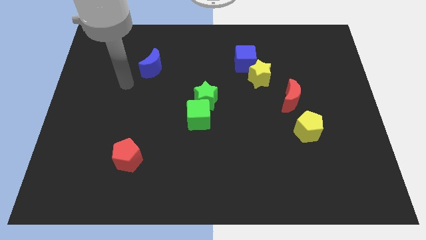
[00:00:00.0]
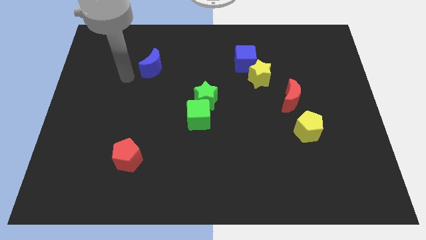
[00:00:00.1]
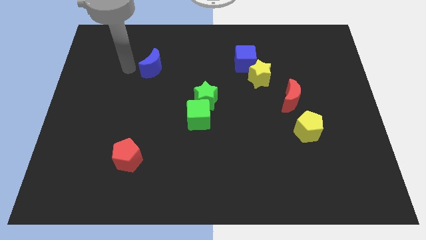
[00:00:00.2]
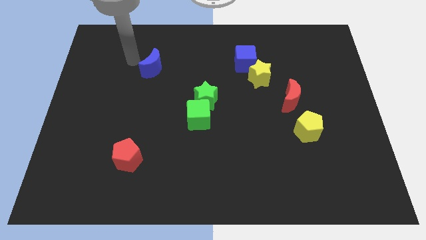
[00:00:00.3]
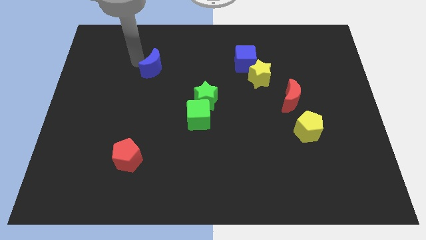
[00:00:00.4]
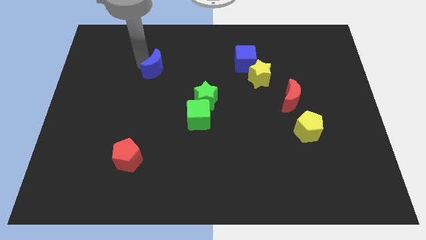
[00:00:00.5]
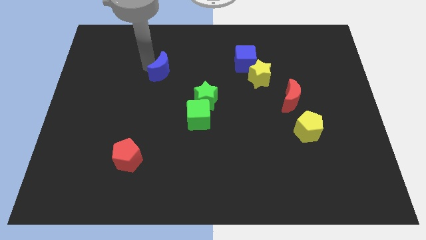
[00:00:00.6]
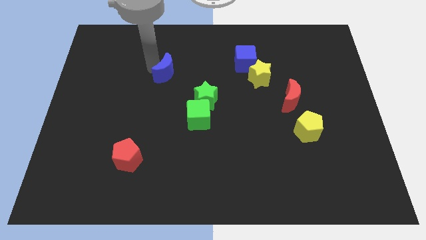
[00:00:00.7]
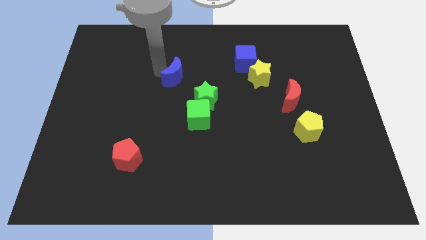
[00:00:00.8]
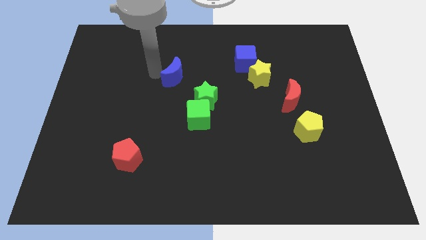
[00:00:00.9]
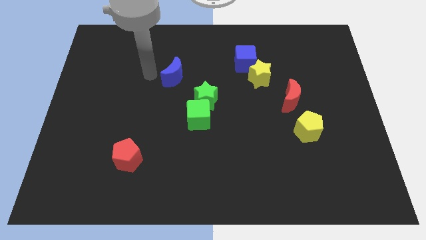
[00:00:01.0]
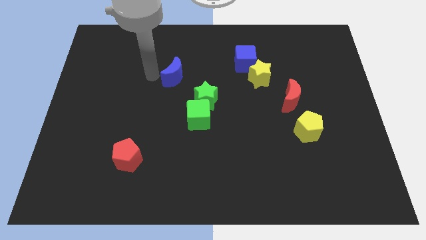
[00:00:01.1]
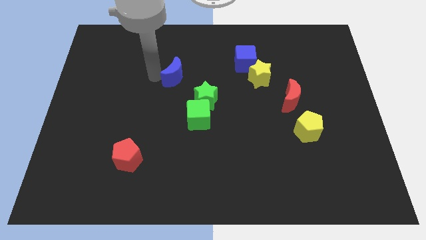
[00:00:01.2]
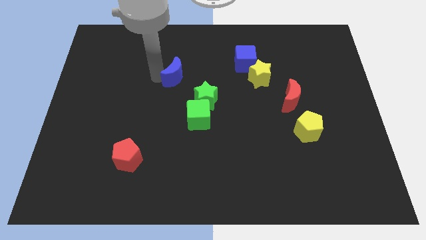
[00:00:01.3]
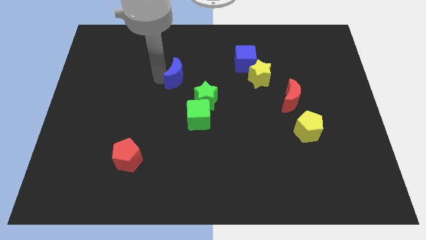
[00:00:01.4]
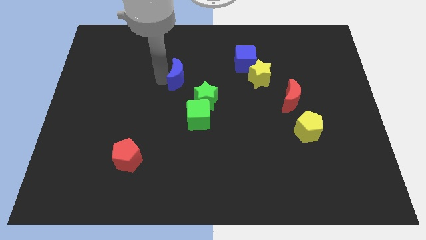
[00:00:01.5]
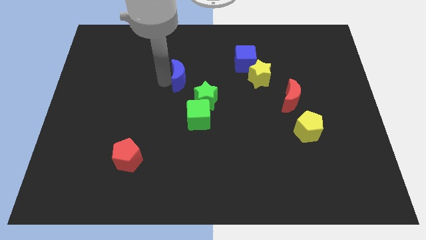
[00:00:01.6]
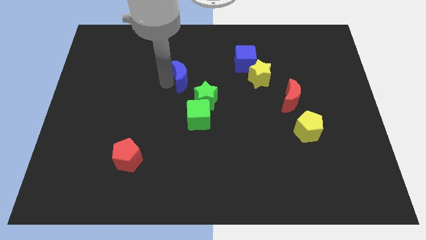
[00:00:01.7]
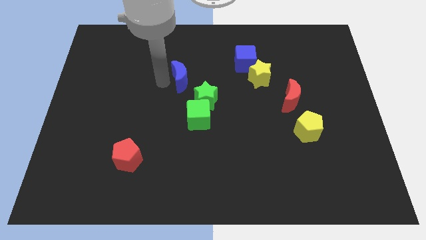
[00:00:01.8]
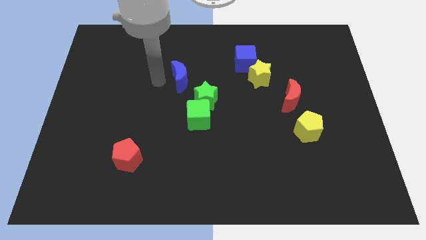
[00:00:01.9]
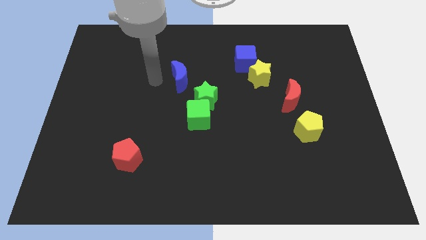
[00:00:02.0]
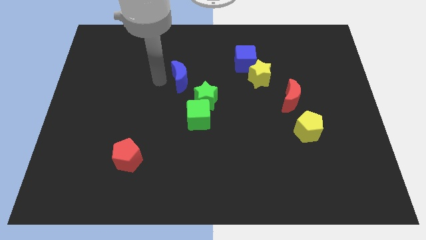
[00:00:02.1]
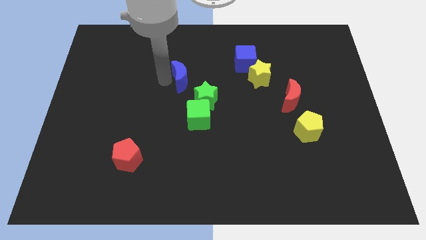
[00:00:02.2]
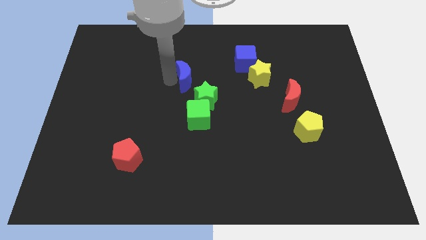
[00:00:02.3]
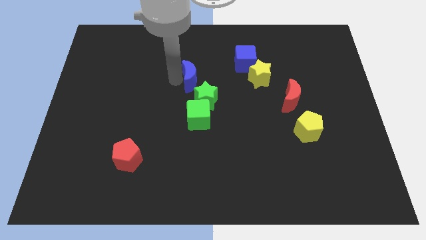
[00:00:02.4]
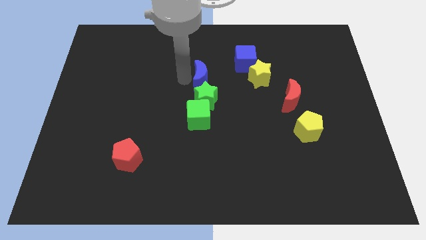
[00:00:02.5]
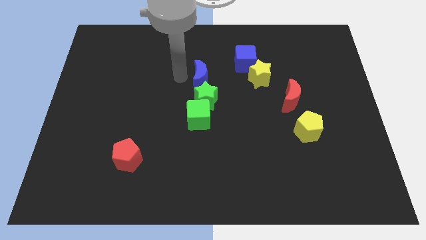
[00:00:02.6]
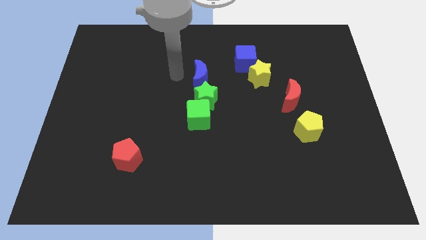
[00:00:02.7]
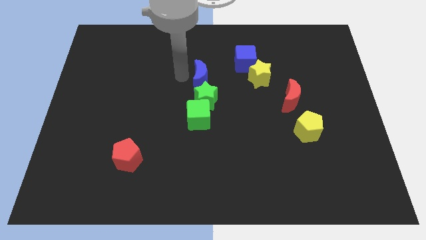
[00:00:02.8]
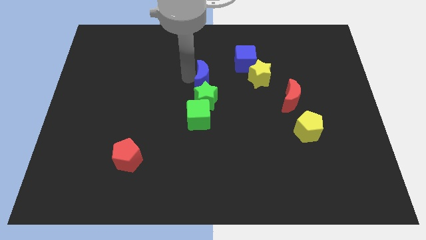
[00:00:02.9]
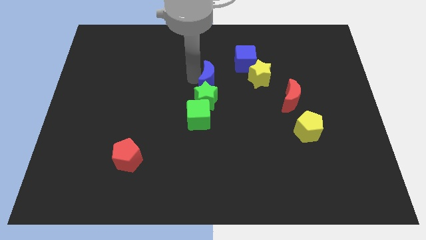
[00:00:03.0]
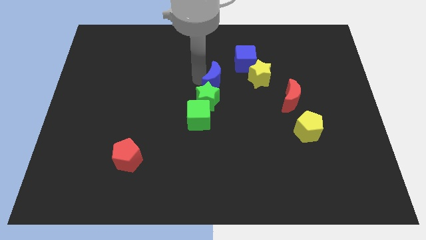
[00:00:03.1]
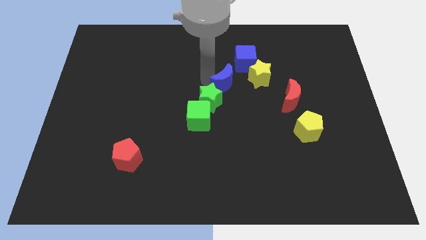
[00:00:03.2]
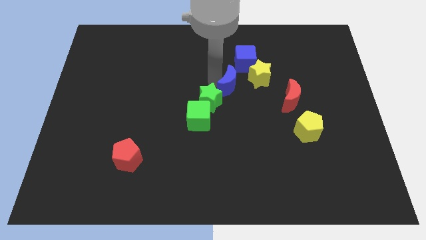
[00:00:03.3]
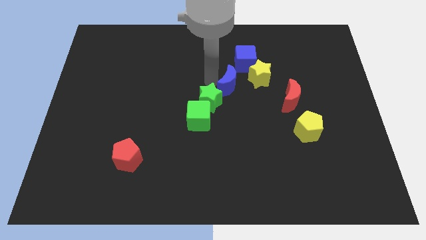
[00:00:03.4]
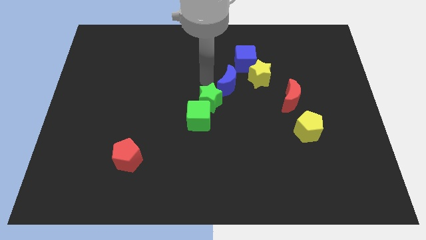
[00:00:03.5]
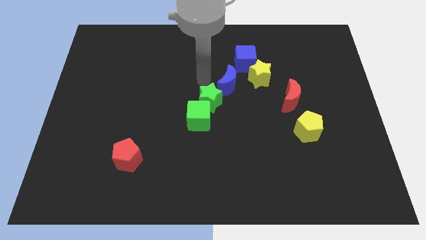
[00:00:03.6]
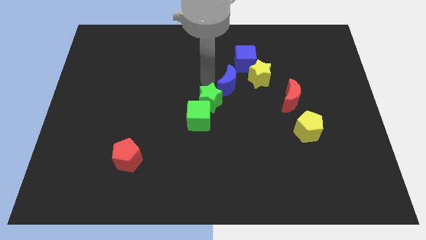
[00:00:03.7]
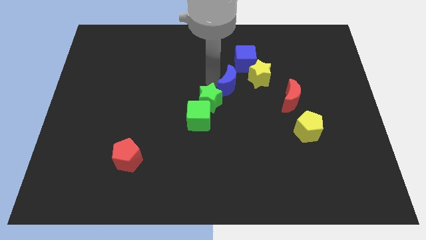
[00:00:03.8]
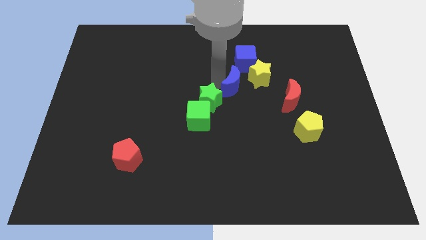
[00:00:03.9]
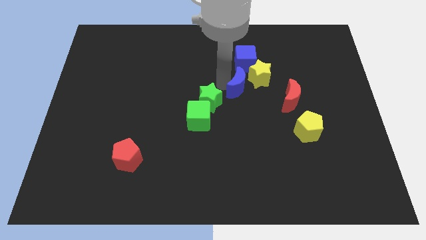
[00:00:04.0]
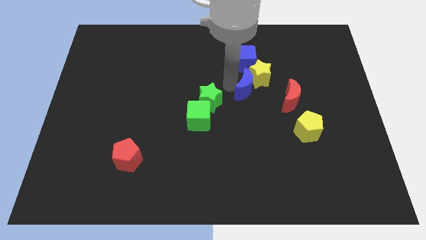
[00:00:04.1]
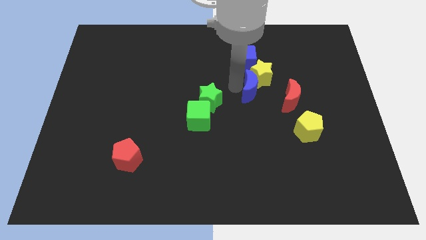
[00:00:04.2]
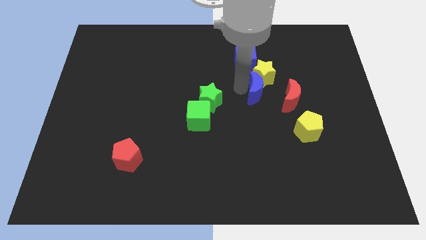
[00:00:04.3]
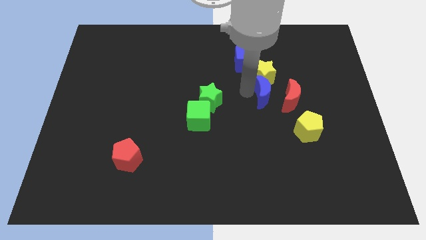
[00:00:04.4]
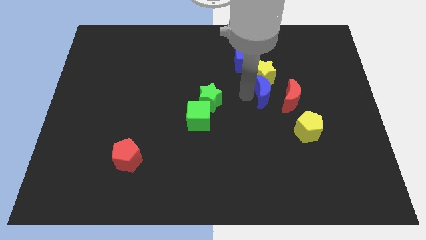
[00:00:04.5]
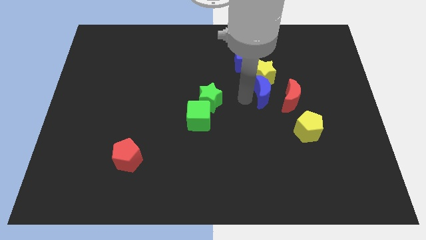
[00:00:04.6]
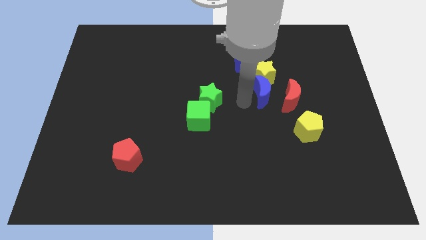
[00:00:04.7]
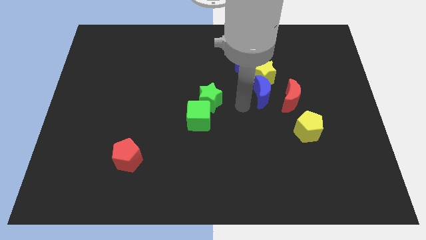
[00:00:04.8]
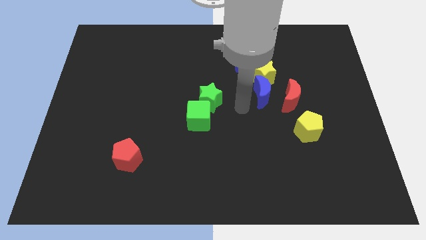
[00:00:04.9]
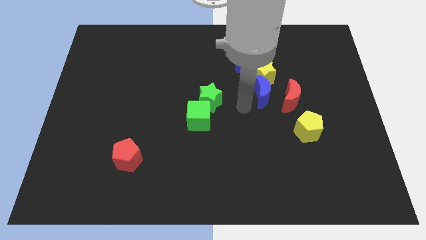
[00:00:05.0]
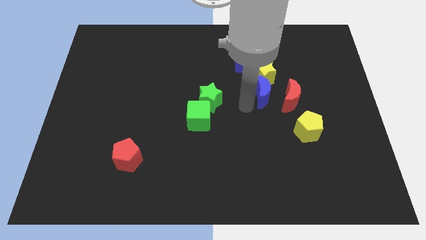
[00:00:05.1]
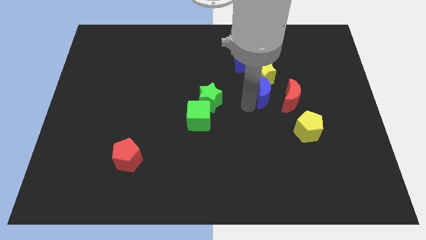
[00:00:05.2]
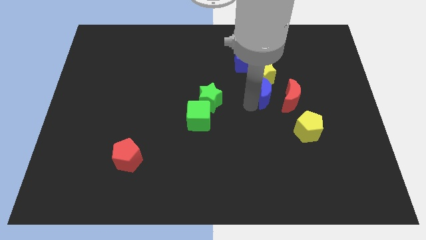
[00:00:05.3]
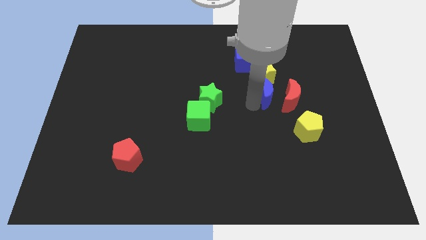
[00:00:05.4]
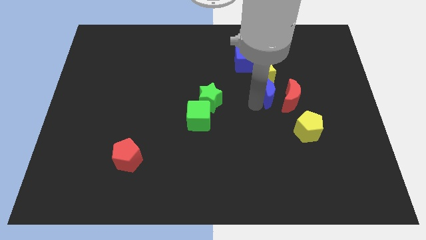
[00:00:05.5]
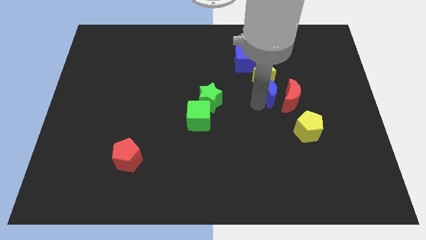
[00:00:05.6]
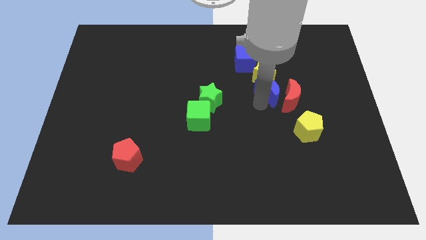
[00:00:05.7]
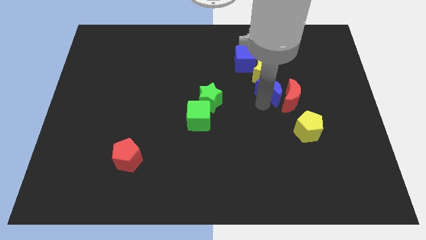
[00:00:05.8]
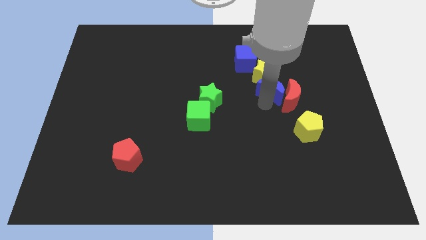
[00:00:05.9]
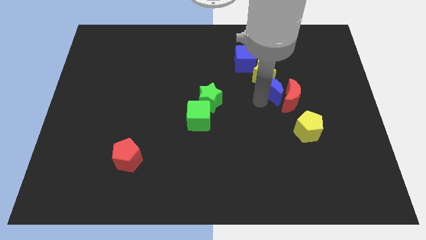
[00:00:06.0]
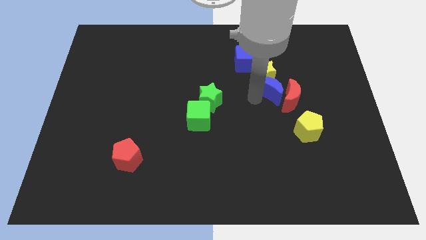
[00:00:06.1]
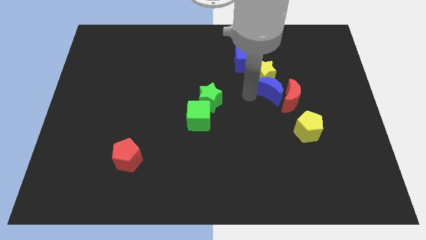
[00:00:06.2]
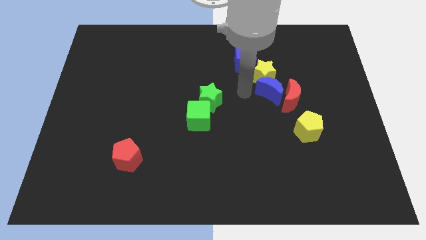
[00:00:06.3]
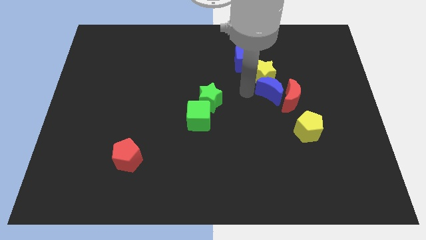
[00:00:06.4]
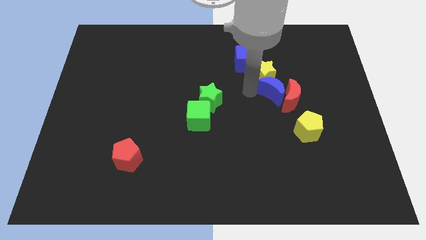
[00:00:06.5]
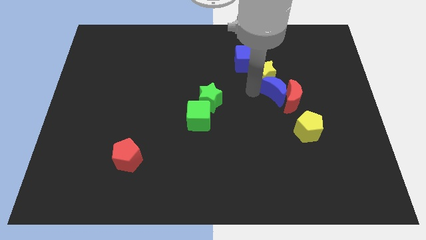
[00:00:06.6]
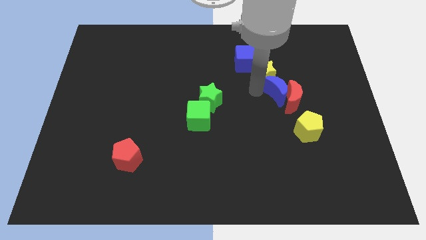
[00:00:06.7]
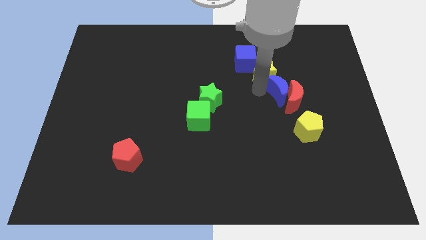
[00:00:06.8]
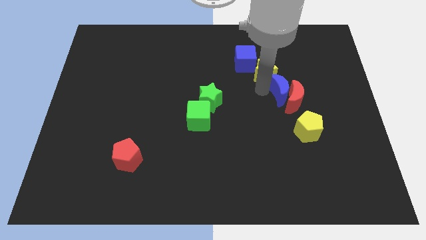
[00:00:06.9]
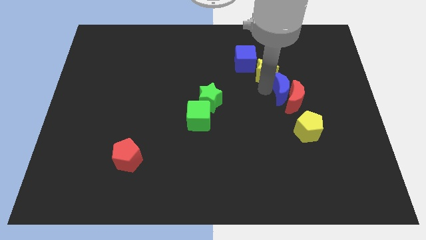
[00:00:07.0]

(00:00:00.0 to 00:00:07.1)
put the blue moon above the yellow pentagon

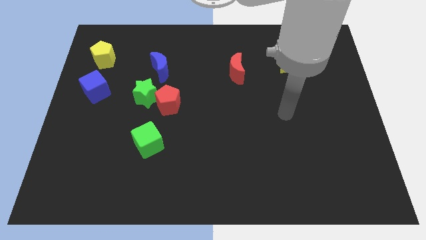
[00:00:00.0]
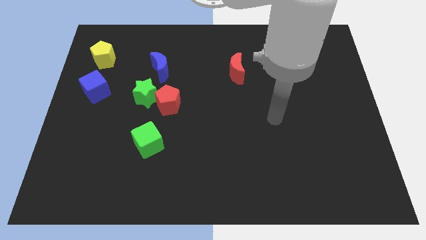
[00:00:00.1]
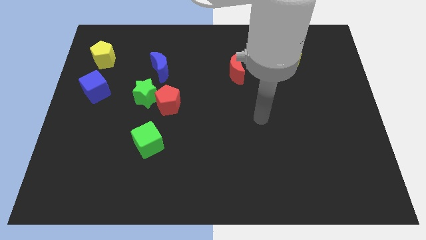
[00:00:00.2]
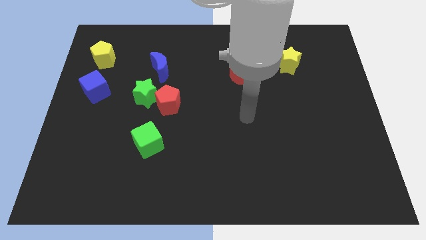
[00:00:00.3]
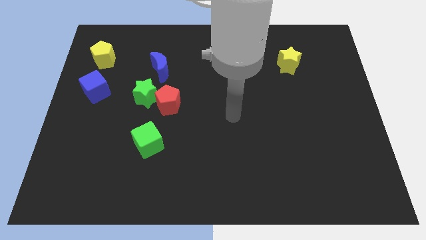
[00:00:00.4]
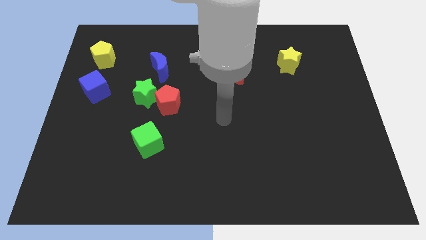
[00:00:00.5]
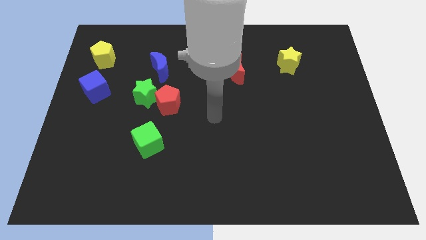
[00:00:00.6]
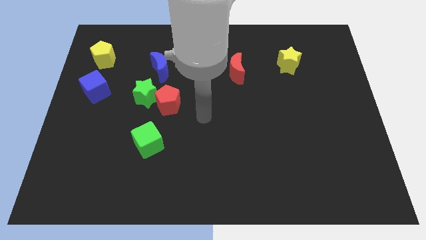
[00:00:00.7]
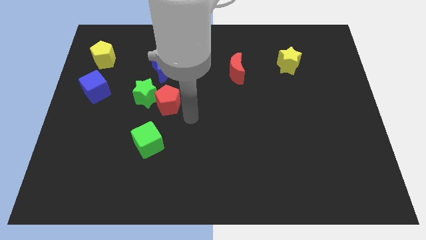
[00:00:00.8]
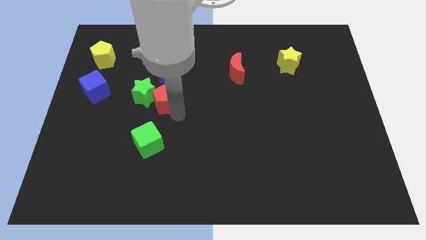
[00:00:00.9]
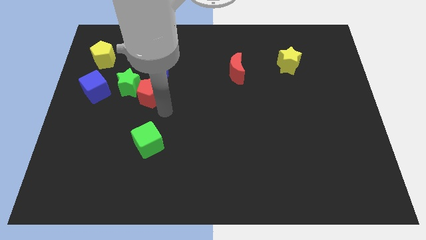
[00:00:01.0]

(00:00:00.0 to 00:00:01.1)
put the green star to the bottom right side of the yellow pentagon
